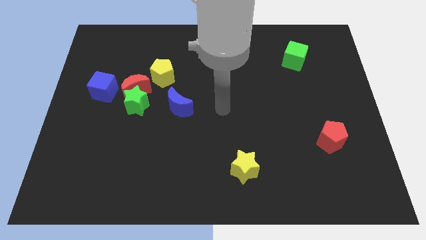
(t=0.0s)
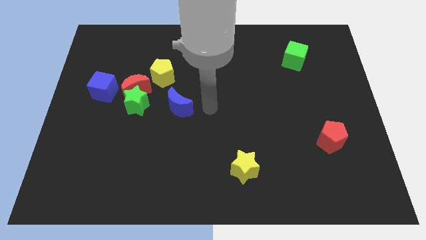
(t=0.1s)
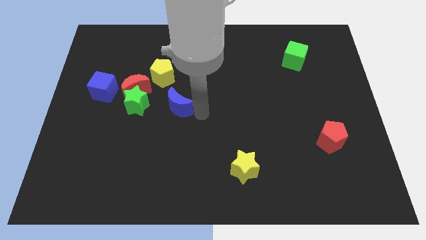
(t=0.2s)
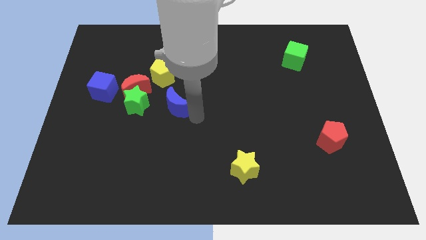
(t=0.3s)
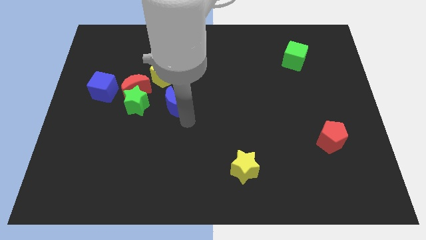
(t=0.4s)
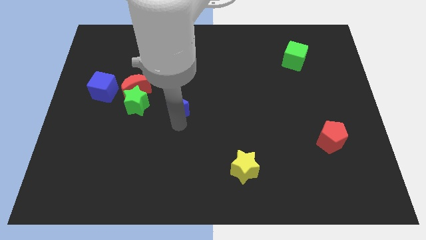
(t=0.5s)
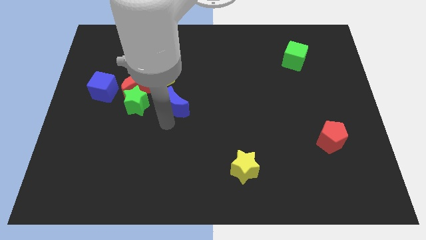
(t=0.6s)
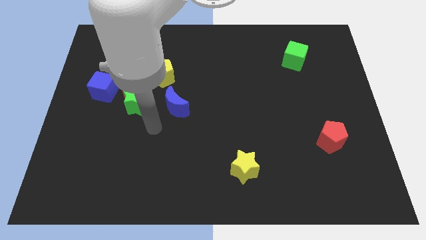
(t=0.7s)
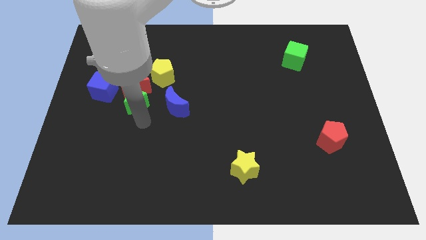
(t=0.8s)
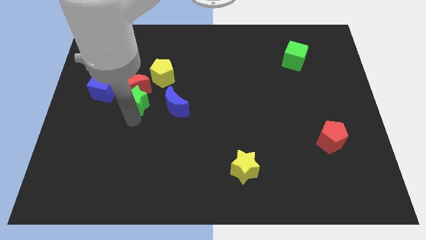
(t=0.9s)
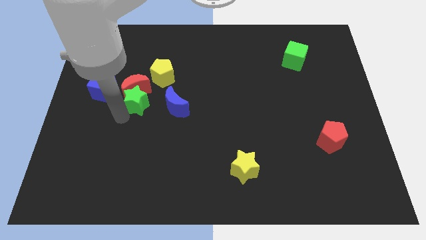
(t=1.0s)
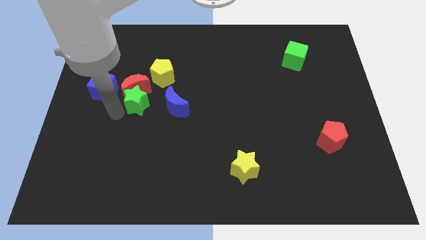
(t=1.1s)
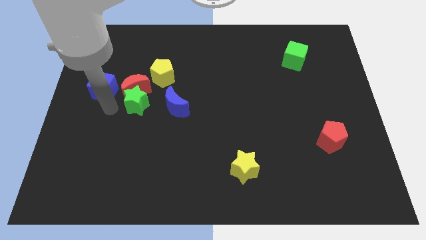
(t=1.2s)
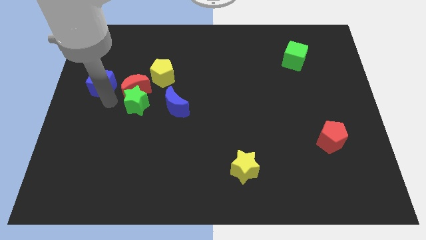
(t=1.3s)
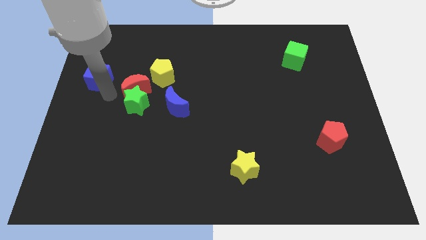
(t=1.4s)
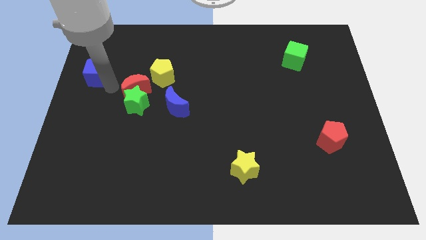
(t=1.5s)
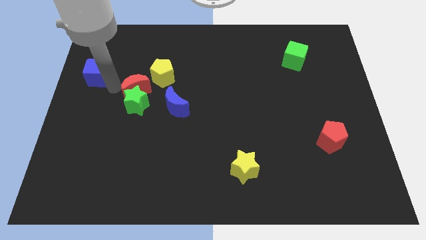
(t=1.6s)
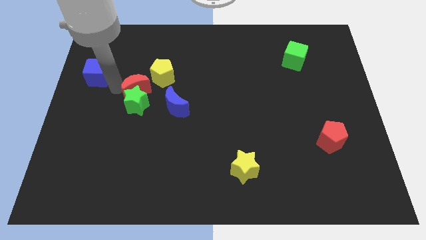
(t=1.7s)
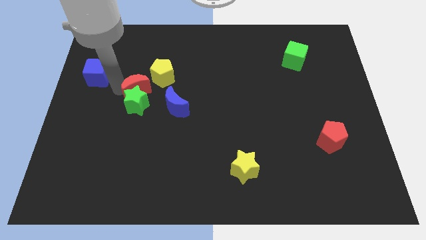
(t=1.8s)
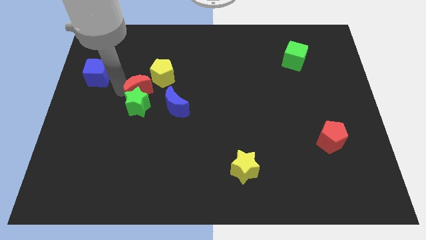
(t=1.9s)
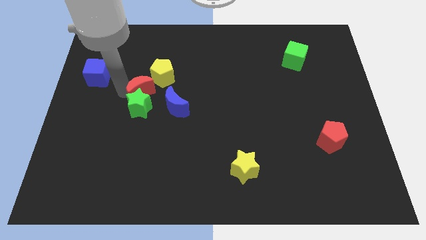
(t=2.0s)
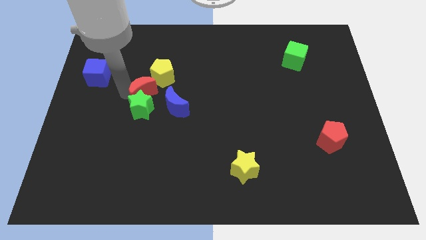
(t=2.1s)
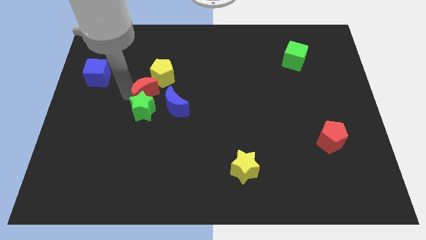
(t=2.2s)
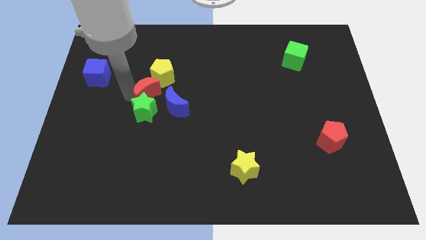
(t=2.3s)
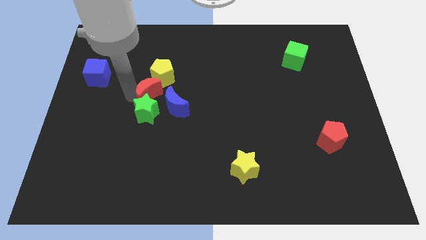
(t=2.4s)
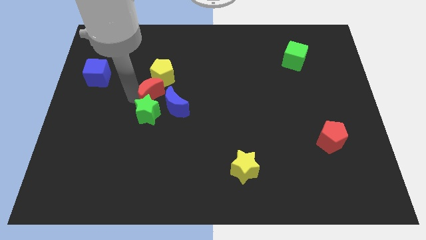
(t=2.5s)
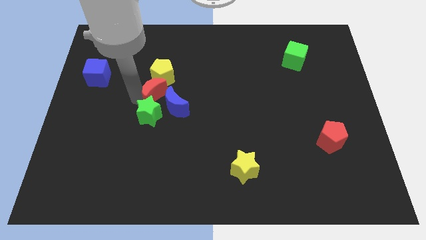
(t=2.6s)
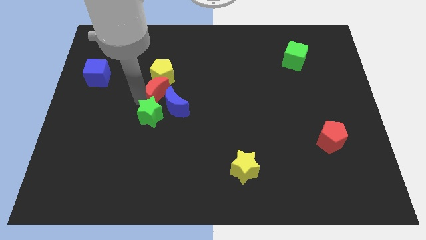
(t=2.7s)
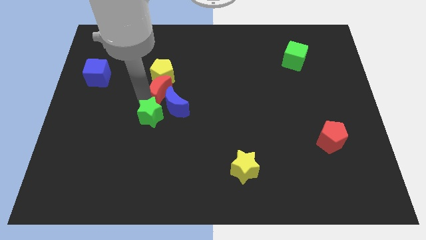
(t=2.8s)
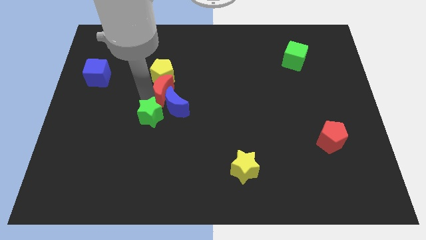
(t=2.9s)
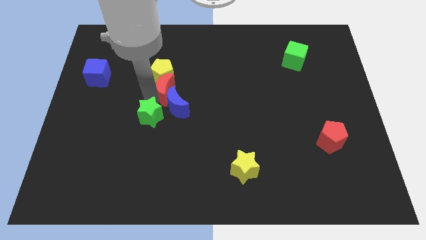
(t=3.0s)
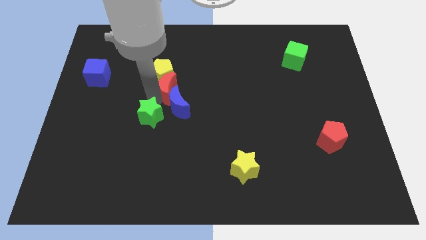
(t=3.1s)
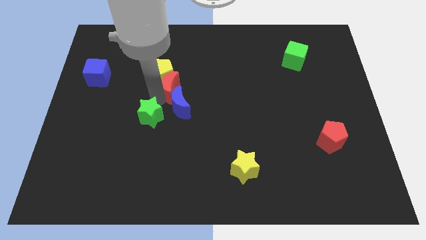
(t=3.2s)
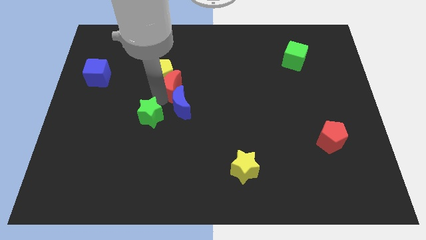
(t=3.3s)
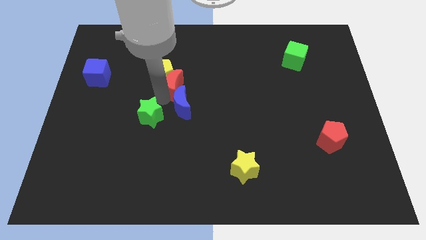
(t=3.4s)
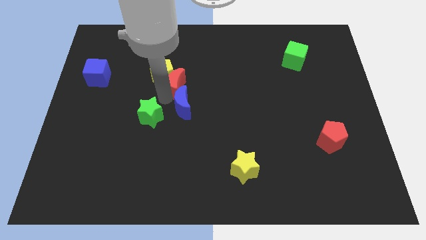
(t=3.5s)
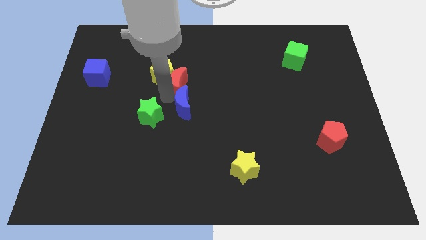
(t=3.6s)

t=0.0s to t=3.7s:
pull the red moon apart from the green star, yellow pentagon, and blue cube

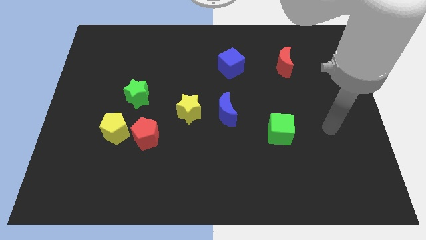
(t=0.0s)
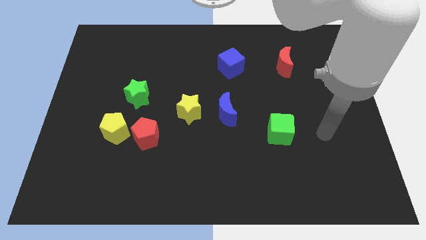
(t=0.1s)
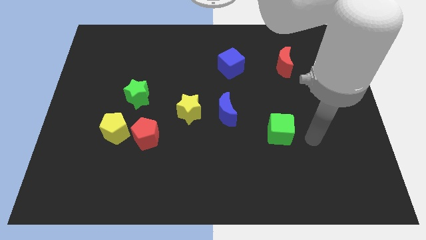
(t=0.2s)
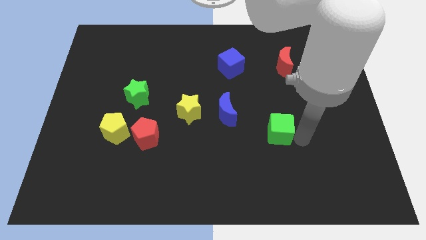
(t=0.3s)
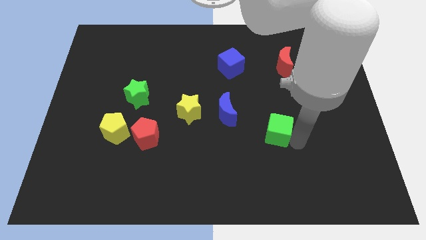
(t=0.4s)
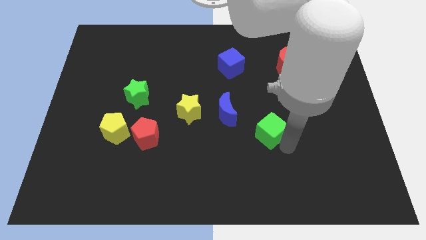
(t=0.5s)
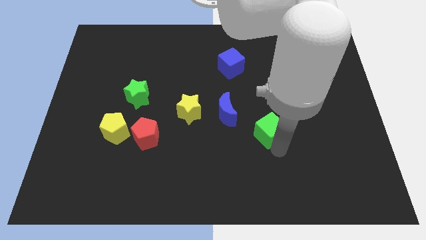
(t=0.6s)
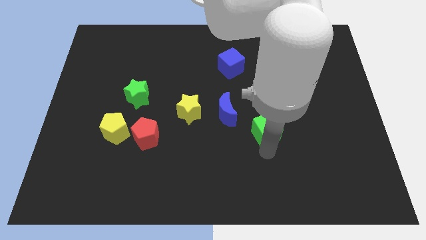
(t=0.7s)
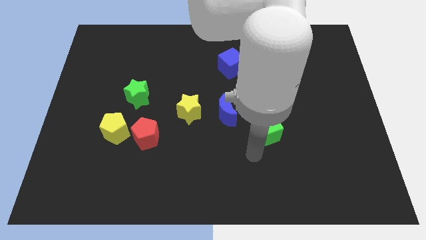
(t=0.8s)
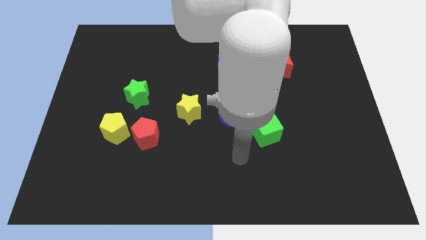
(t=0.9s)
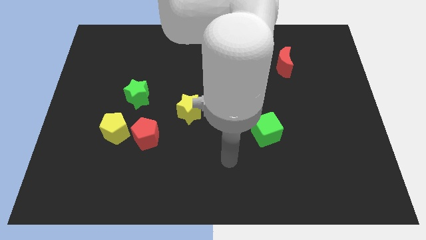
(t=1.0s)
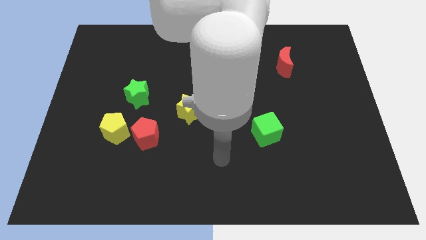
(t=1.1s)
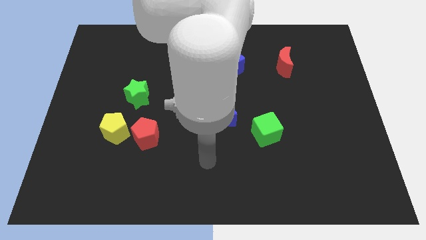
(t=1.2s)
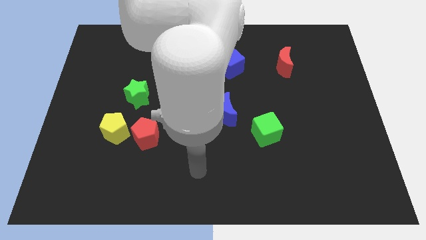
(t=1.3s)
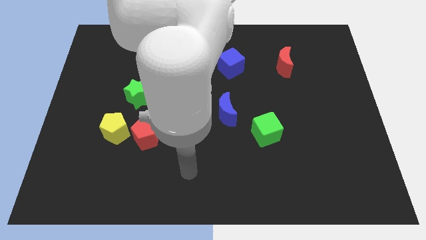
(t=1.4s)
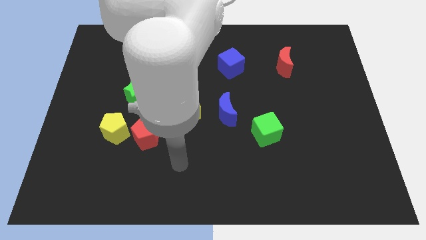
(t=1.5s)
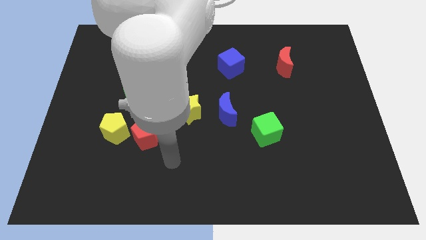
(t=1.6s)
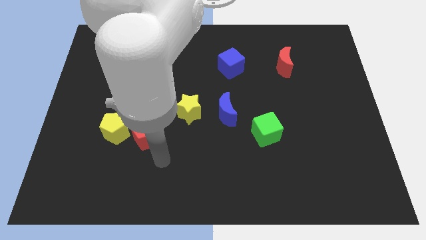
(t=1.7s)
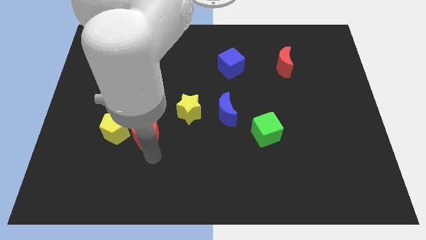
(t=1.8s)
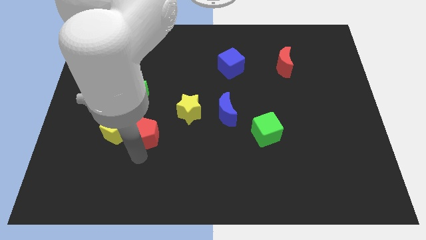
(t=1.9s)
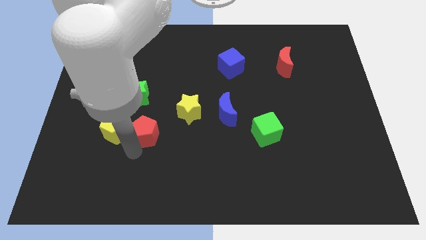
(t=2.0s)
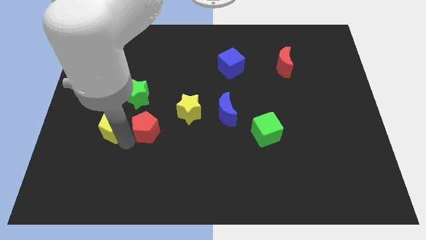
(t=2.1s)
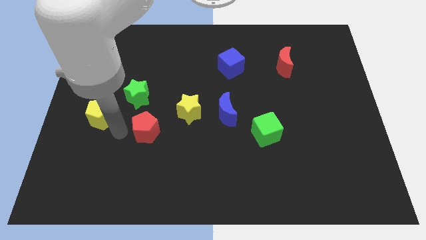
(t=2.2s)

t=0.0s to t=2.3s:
move the red pentagon away from the yellow pentagon

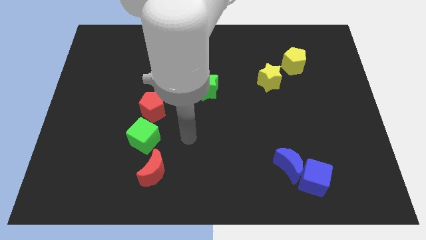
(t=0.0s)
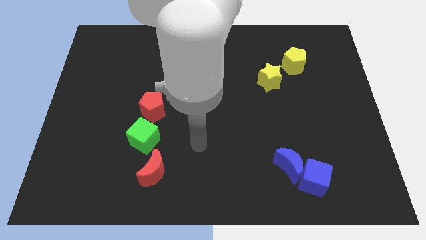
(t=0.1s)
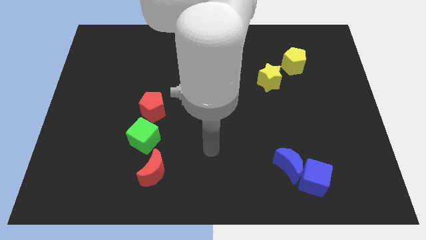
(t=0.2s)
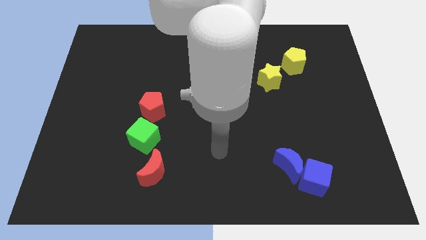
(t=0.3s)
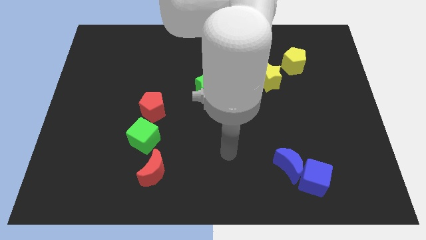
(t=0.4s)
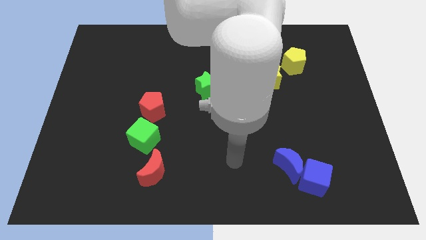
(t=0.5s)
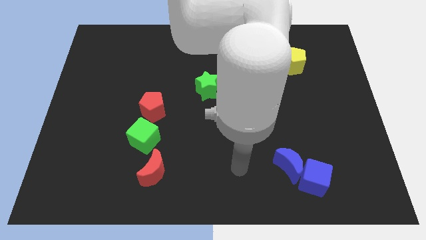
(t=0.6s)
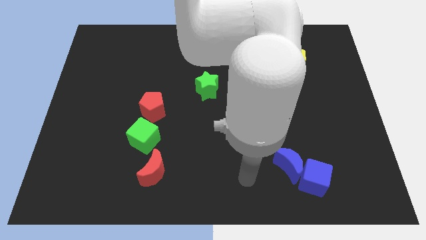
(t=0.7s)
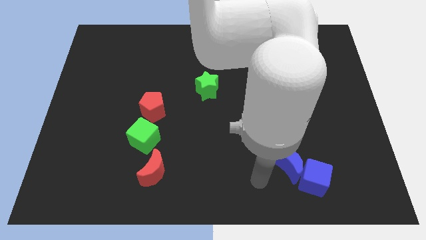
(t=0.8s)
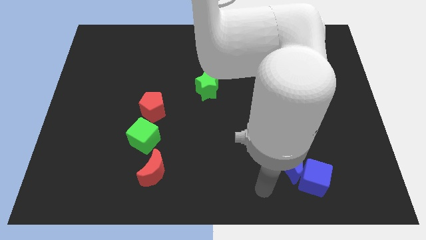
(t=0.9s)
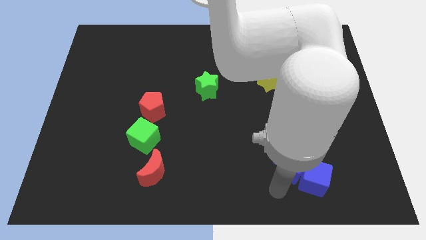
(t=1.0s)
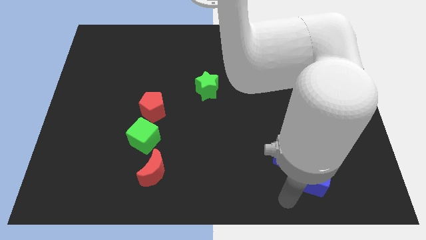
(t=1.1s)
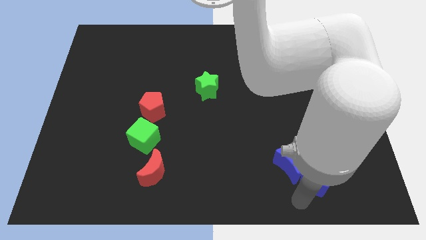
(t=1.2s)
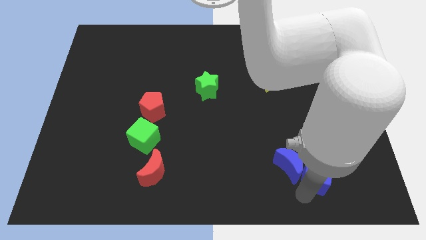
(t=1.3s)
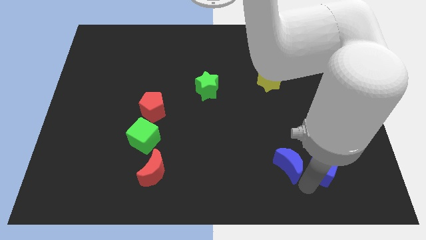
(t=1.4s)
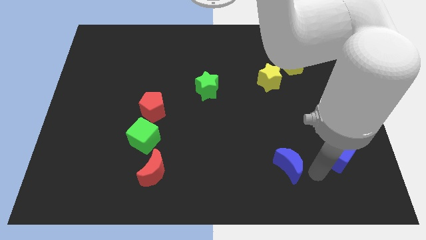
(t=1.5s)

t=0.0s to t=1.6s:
pull the blue moon apart from the blue cube

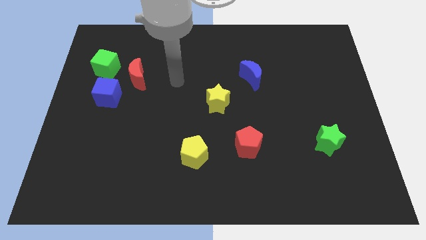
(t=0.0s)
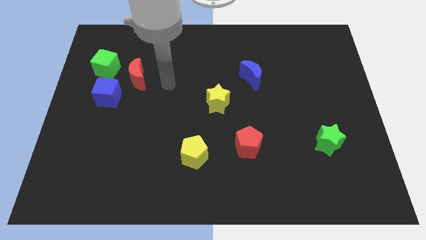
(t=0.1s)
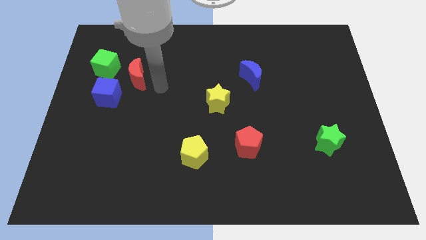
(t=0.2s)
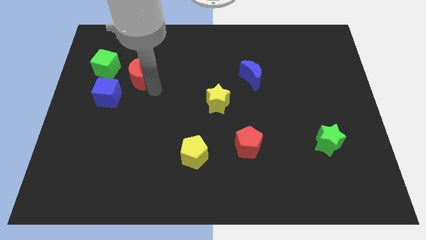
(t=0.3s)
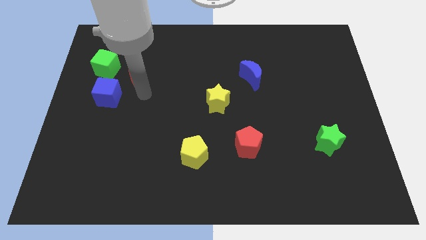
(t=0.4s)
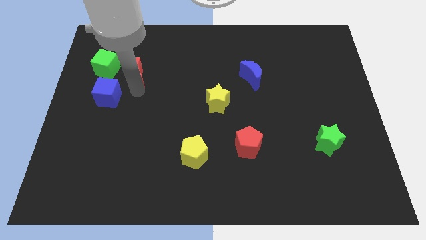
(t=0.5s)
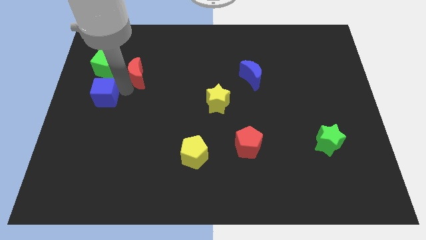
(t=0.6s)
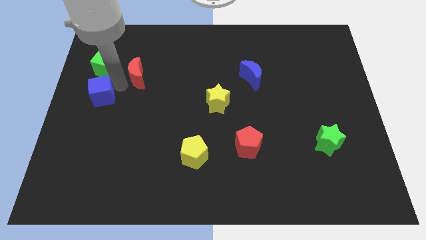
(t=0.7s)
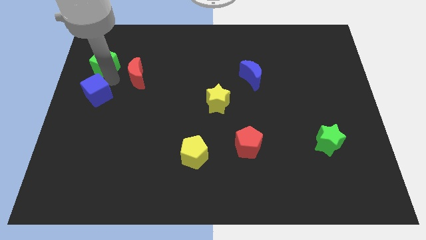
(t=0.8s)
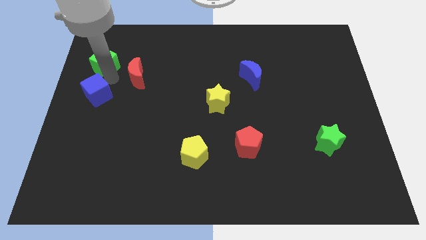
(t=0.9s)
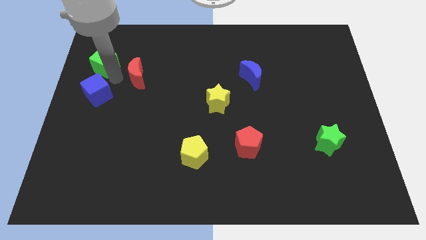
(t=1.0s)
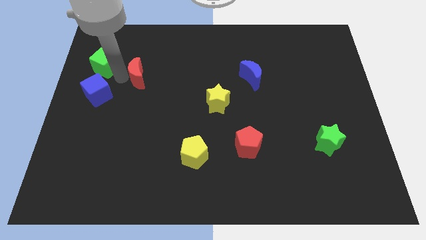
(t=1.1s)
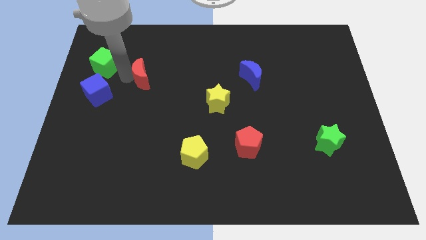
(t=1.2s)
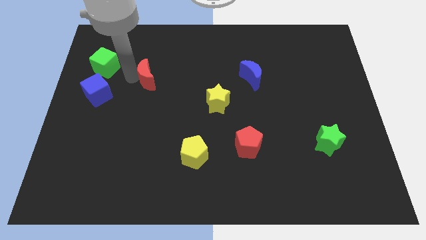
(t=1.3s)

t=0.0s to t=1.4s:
separate the red moon from the blue cube and green cube

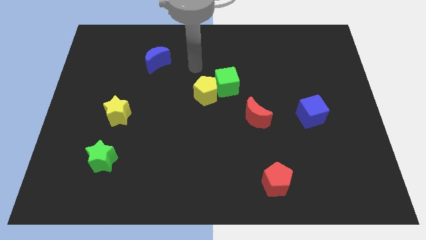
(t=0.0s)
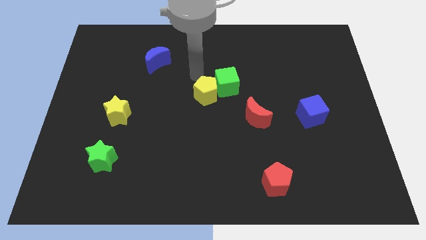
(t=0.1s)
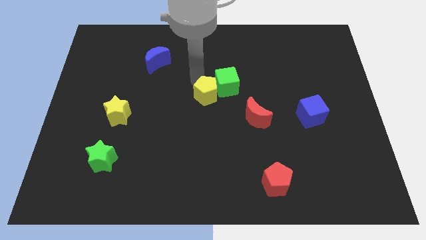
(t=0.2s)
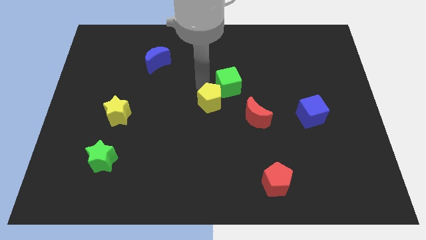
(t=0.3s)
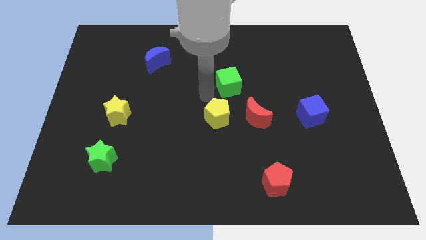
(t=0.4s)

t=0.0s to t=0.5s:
pull the green cube apart from the yellow pentagon
